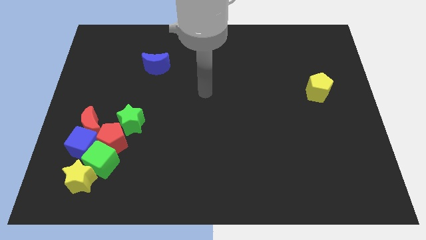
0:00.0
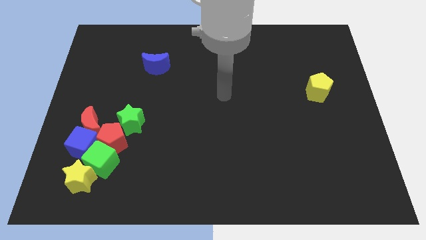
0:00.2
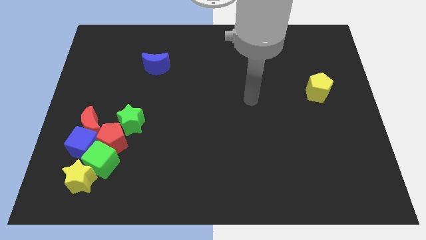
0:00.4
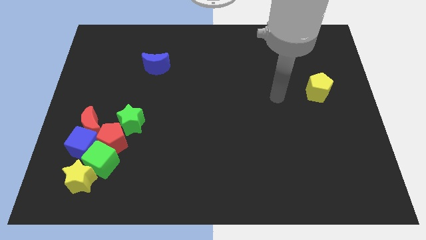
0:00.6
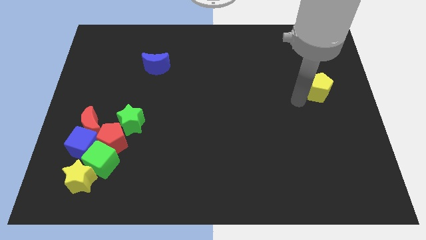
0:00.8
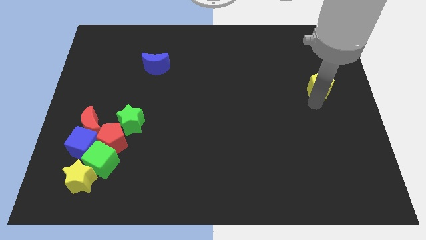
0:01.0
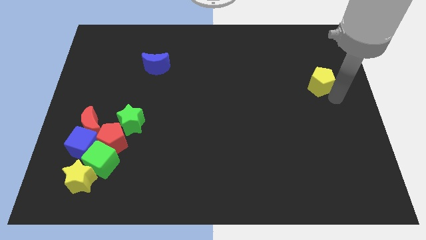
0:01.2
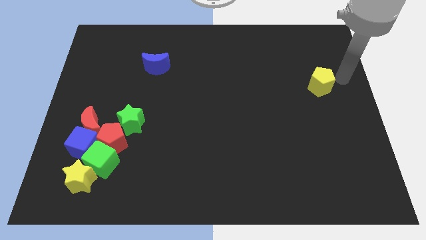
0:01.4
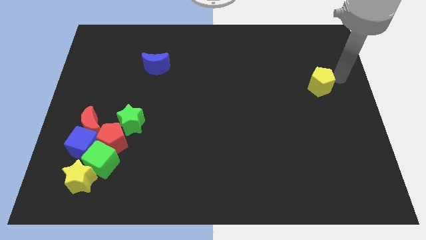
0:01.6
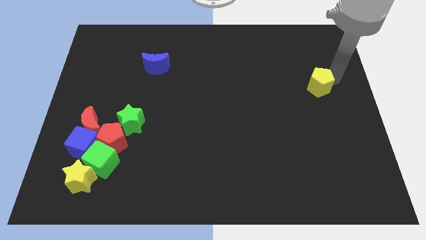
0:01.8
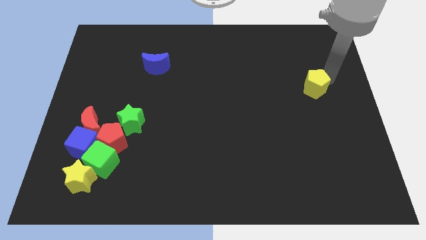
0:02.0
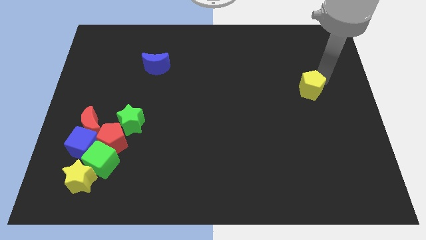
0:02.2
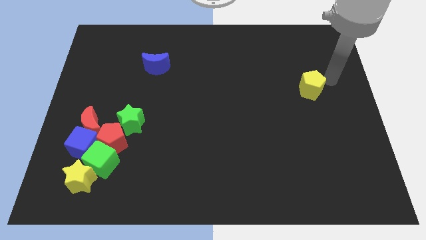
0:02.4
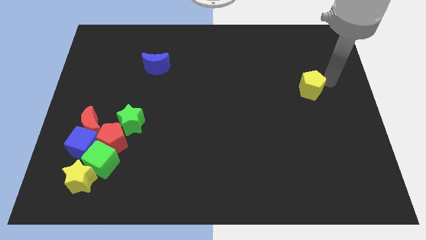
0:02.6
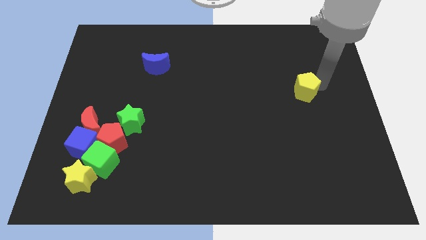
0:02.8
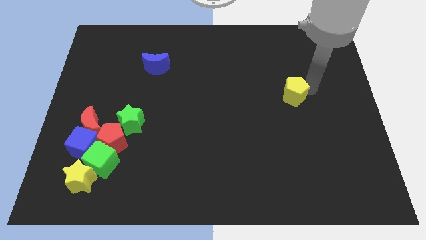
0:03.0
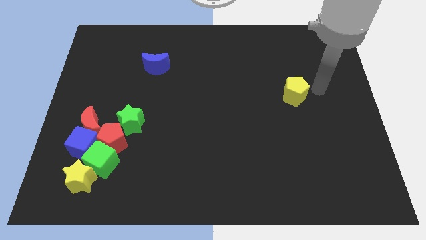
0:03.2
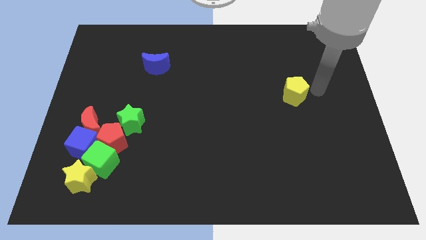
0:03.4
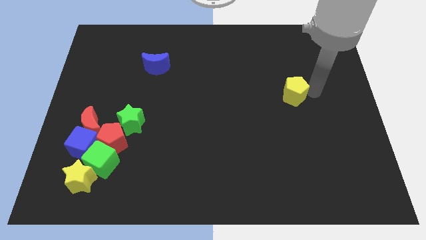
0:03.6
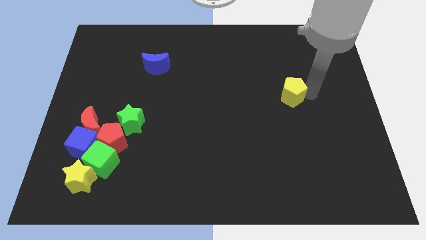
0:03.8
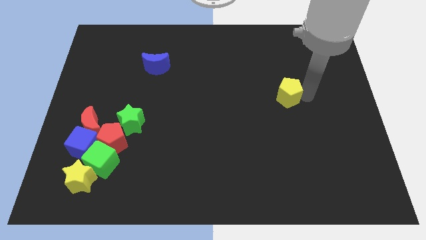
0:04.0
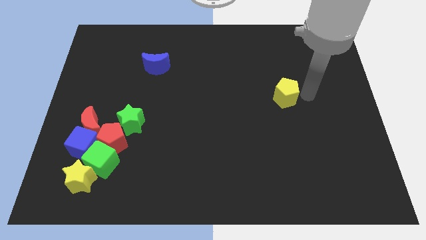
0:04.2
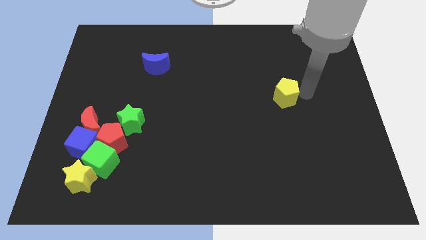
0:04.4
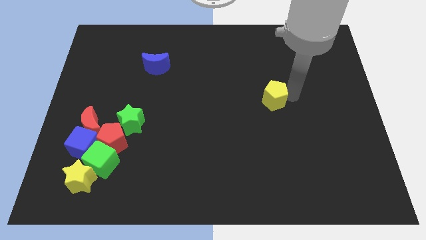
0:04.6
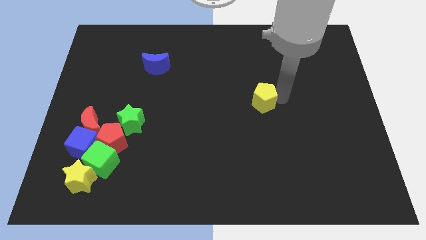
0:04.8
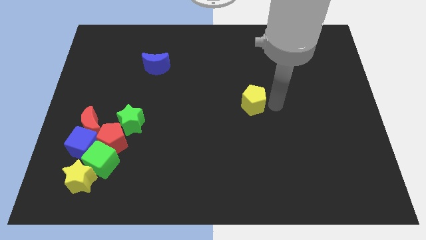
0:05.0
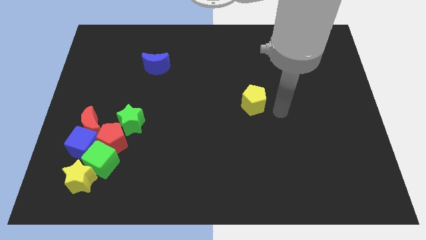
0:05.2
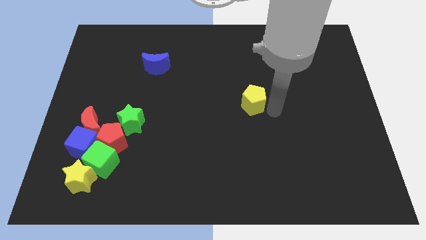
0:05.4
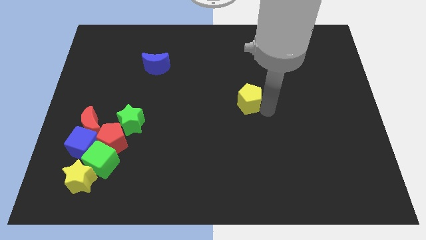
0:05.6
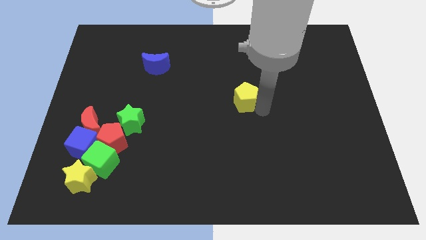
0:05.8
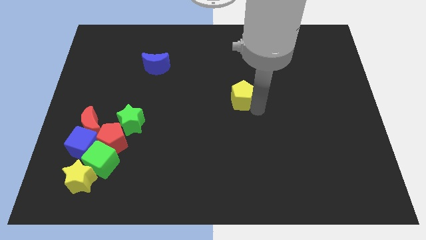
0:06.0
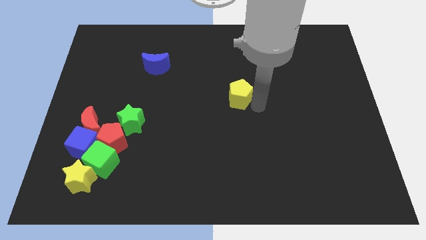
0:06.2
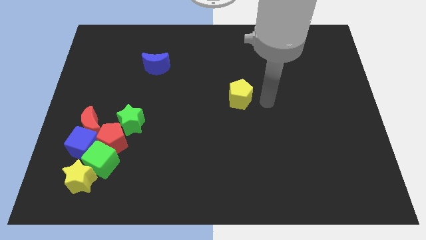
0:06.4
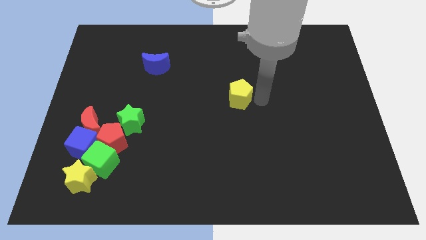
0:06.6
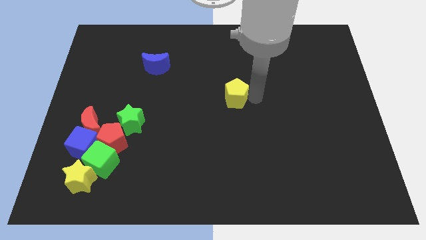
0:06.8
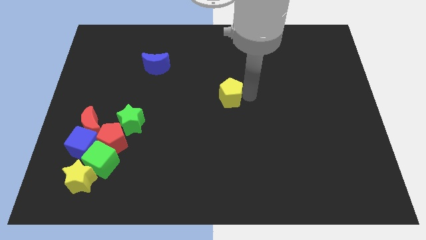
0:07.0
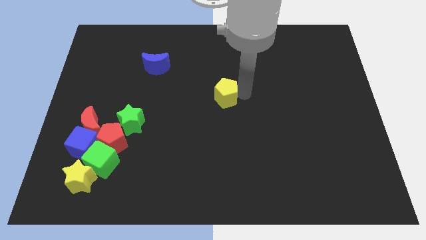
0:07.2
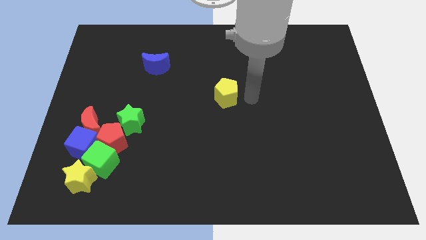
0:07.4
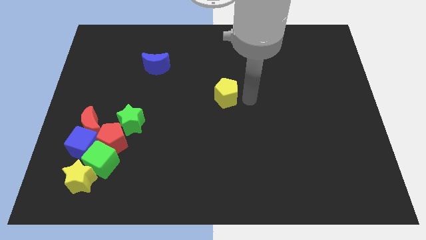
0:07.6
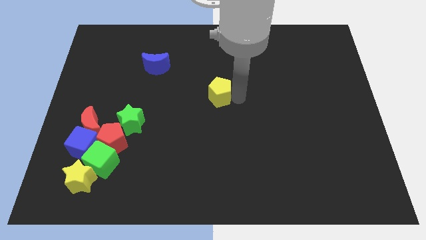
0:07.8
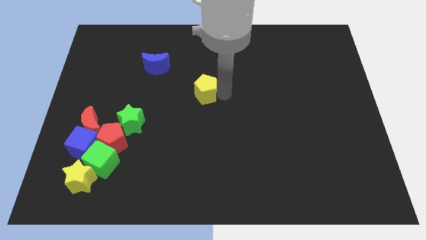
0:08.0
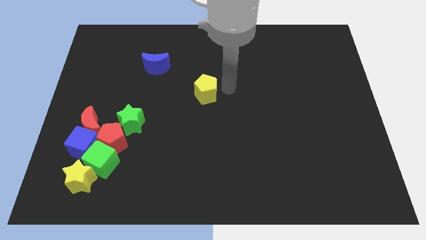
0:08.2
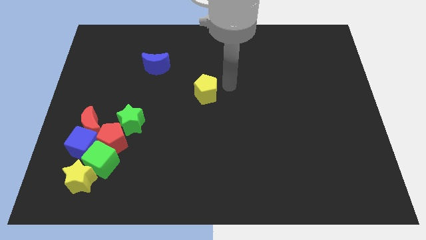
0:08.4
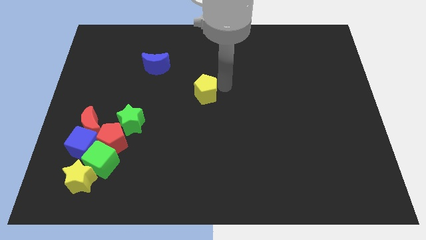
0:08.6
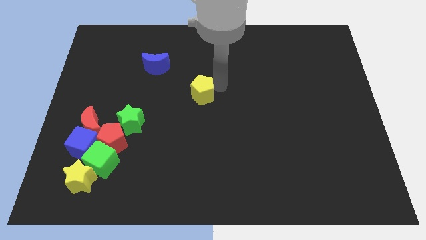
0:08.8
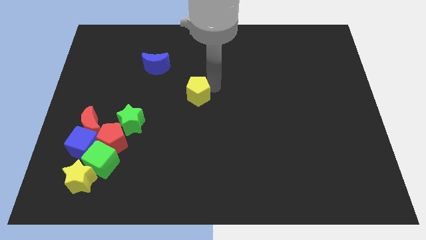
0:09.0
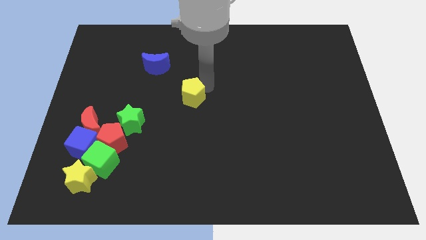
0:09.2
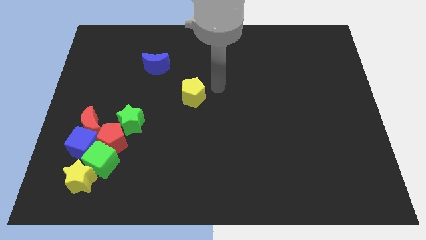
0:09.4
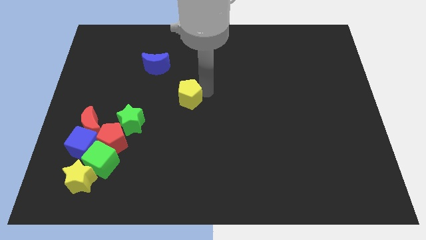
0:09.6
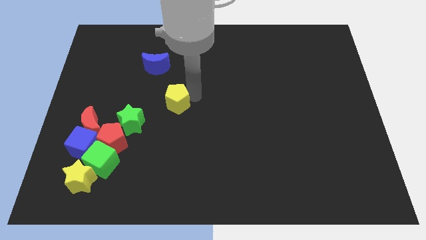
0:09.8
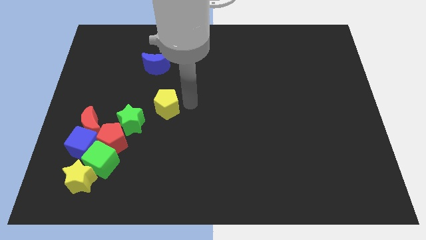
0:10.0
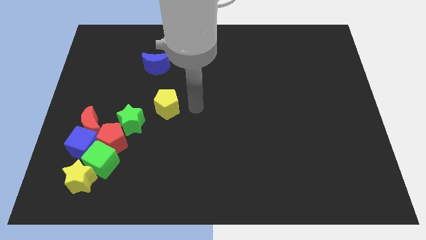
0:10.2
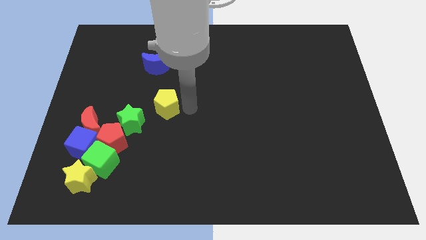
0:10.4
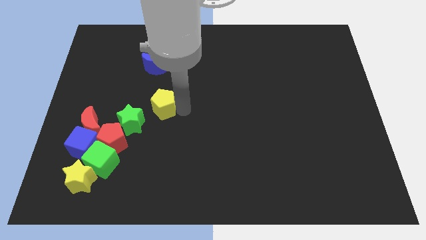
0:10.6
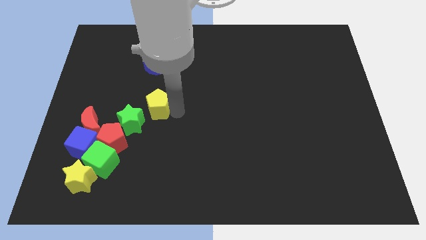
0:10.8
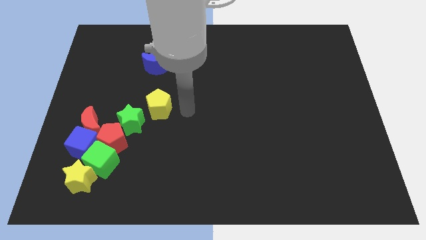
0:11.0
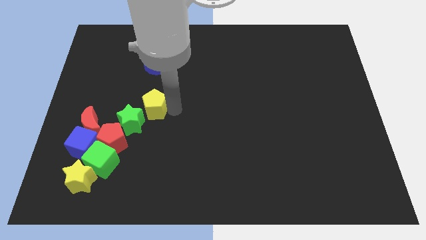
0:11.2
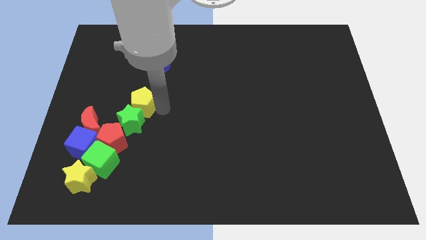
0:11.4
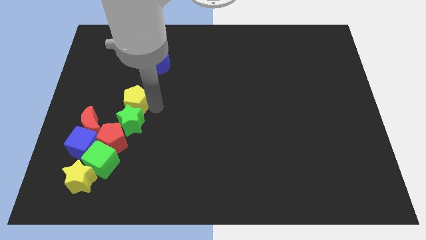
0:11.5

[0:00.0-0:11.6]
push the yellow pentagon to the top right side of the red moon

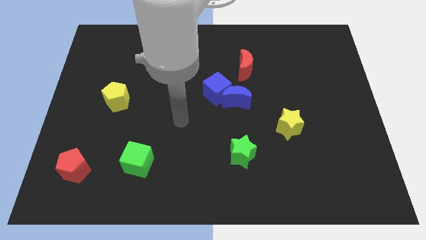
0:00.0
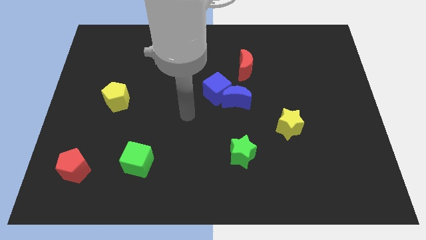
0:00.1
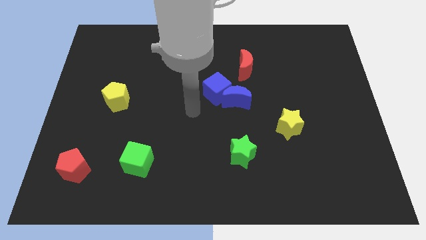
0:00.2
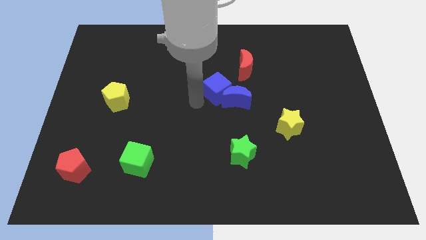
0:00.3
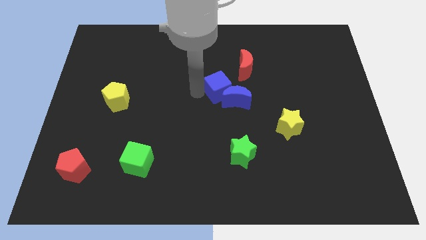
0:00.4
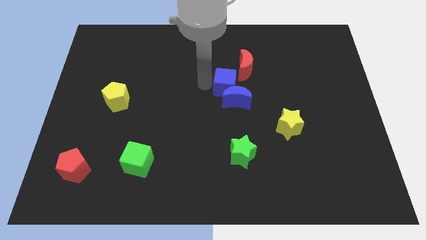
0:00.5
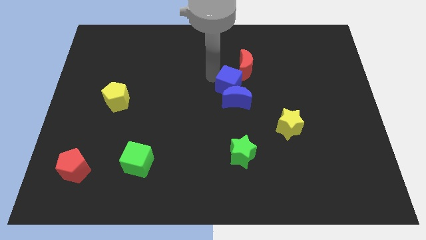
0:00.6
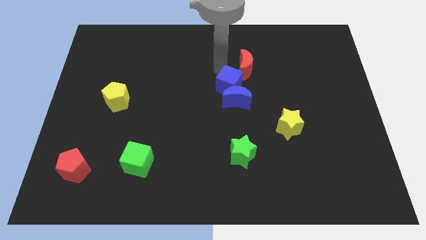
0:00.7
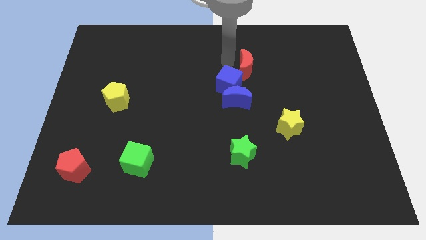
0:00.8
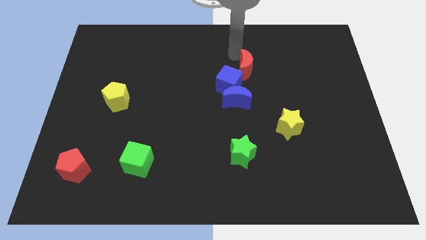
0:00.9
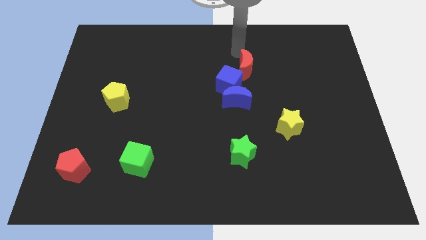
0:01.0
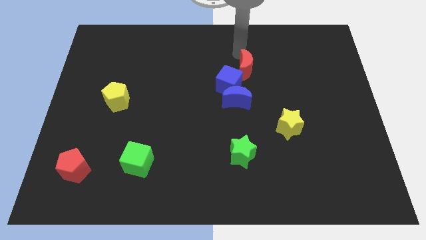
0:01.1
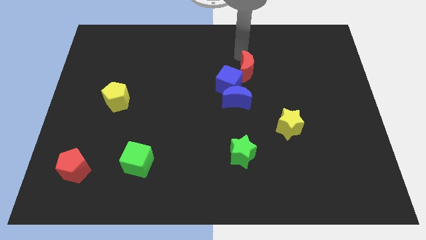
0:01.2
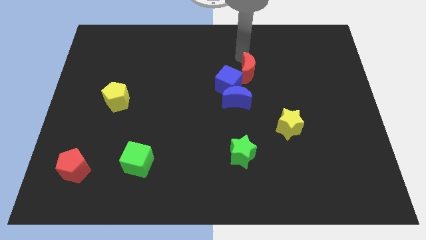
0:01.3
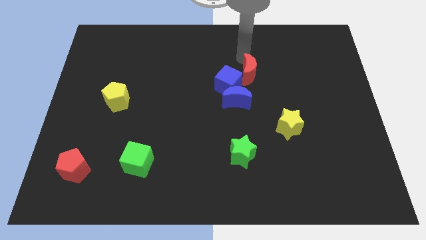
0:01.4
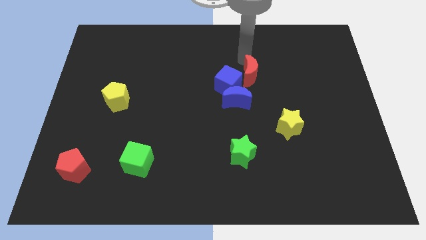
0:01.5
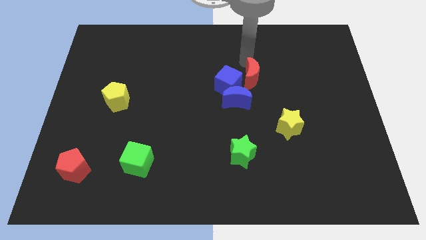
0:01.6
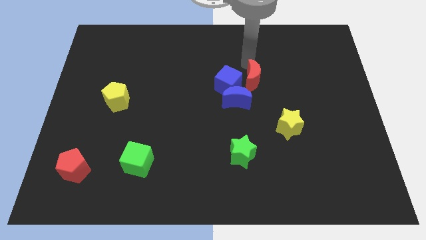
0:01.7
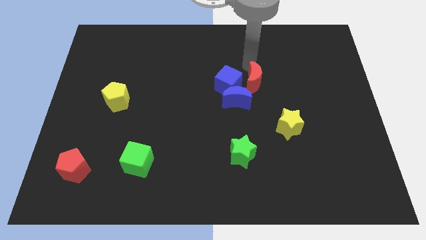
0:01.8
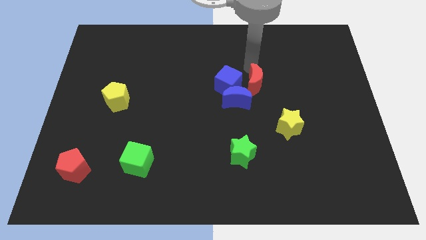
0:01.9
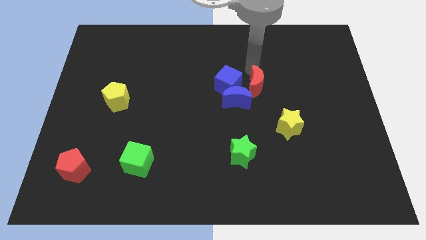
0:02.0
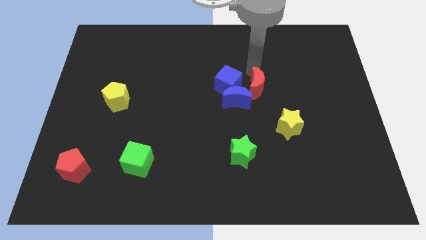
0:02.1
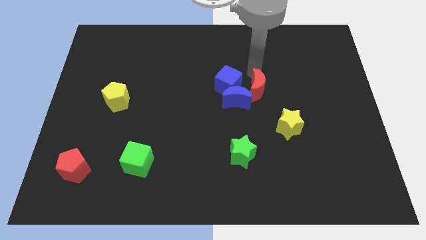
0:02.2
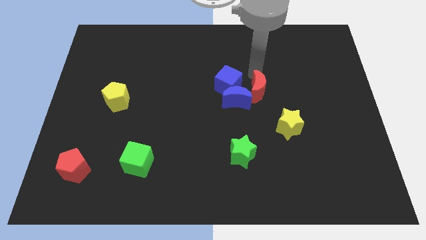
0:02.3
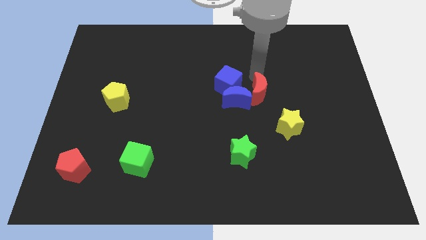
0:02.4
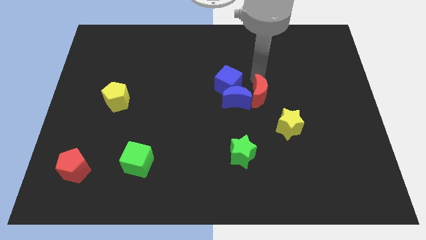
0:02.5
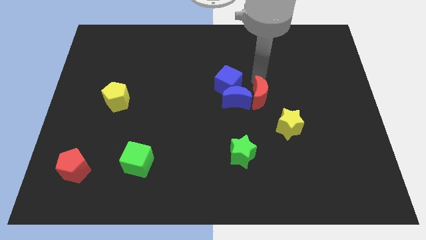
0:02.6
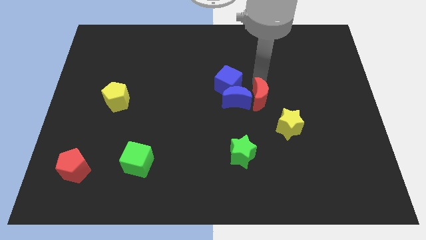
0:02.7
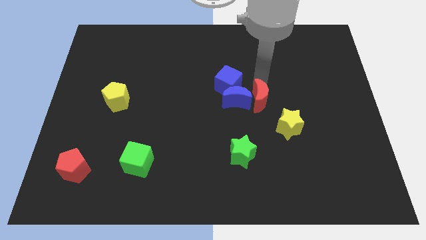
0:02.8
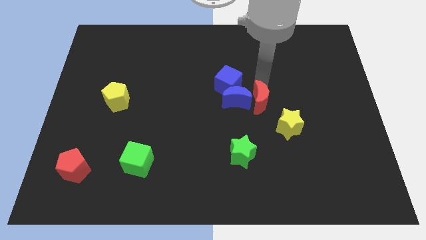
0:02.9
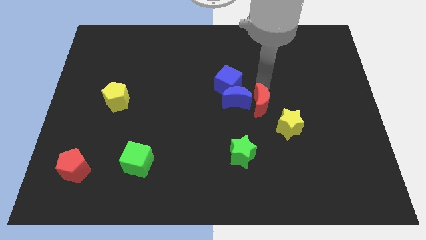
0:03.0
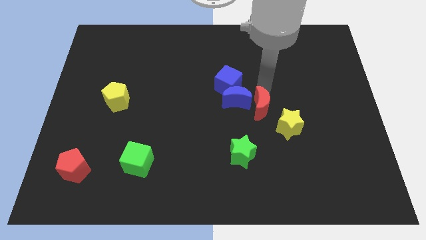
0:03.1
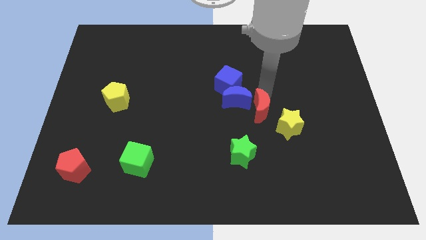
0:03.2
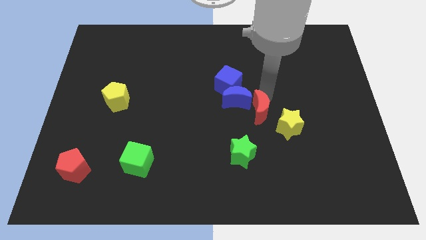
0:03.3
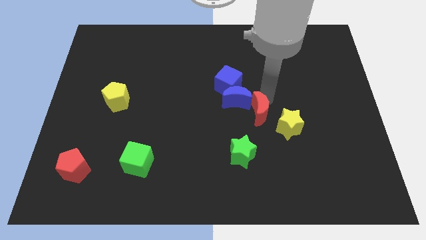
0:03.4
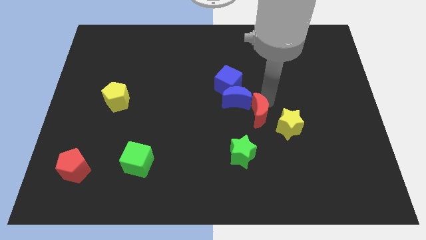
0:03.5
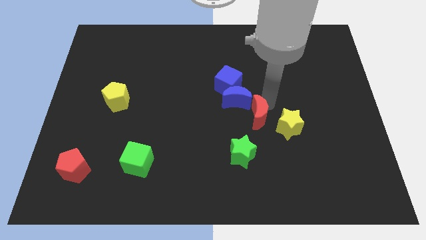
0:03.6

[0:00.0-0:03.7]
push the red moon to the top right side of the green star
